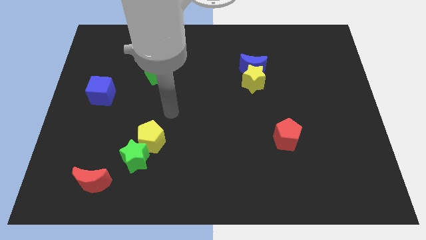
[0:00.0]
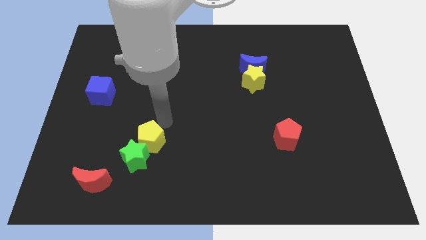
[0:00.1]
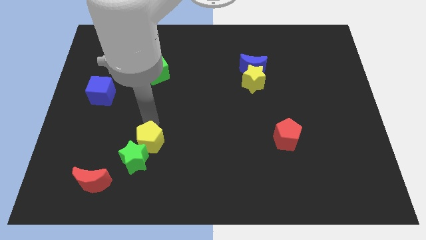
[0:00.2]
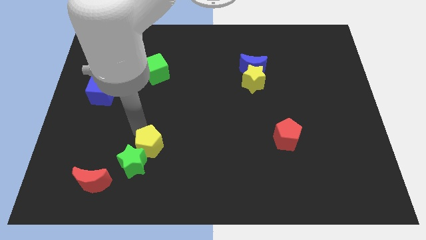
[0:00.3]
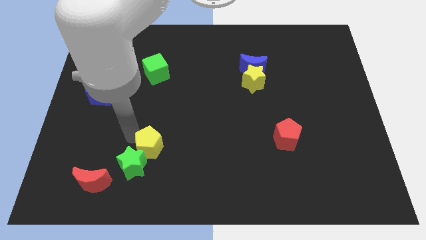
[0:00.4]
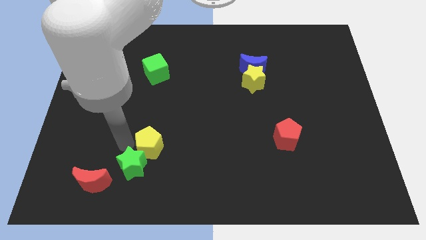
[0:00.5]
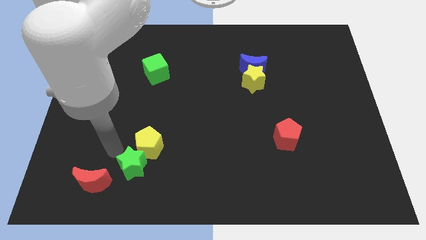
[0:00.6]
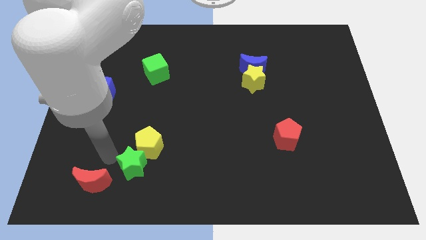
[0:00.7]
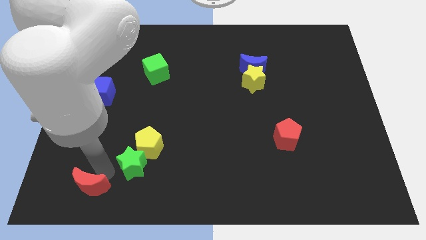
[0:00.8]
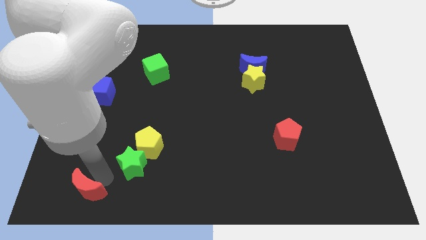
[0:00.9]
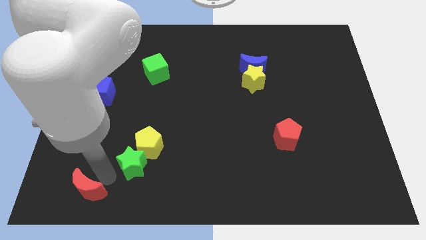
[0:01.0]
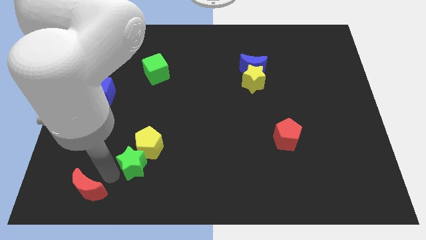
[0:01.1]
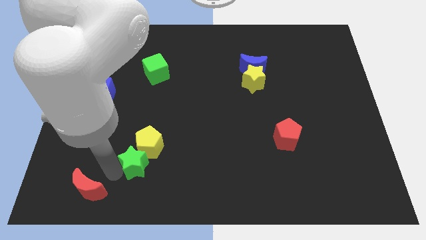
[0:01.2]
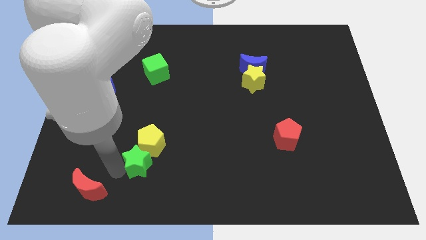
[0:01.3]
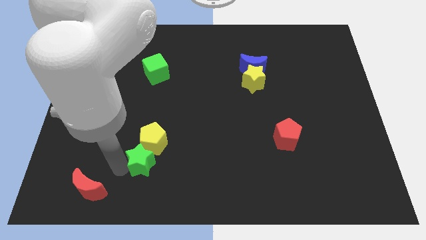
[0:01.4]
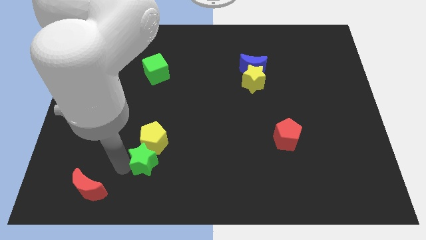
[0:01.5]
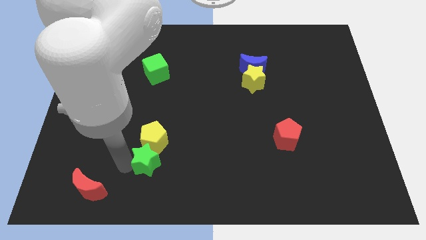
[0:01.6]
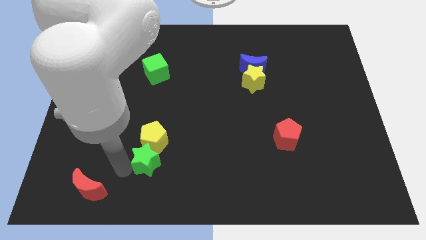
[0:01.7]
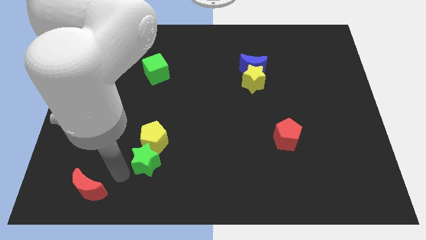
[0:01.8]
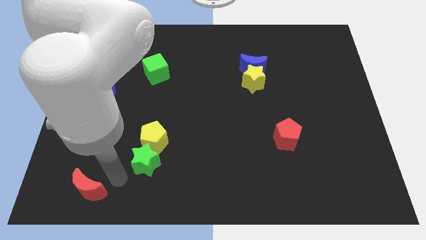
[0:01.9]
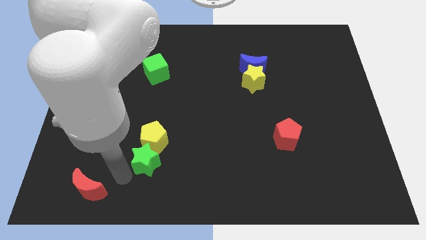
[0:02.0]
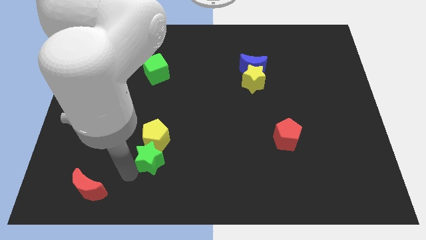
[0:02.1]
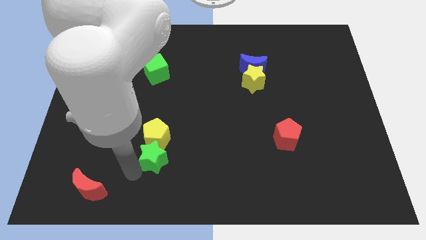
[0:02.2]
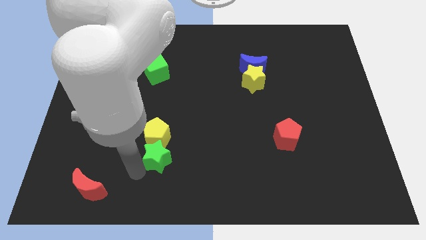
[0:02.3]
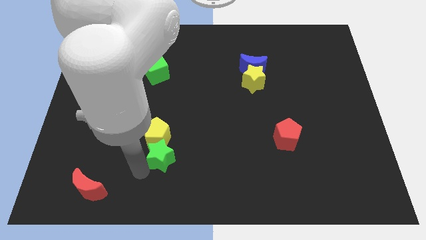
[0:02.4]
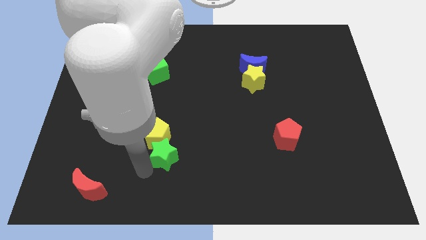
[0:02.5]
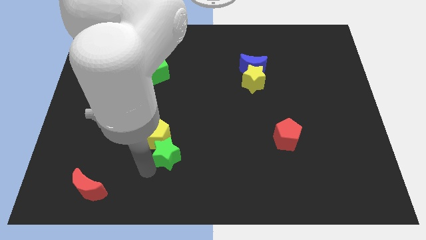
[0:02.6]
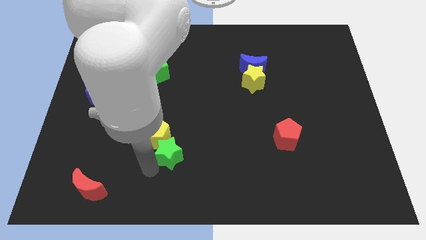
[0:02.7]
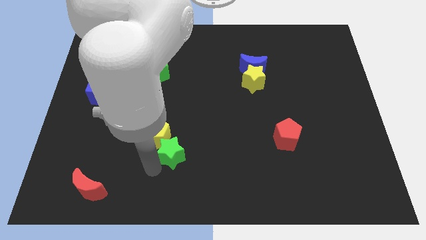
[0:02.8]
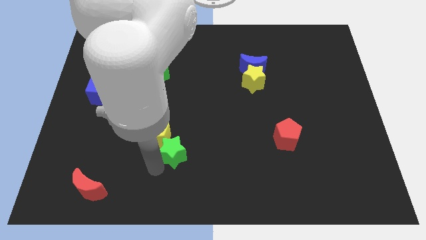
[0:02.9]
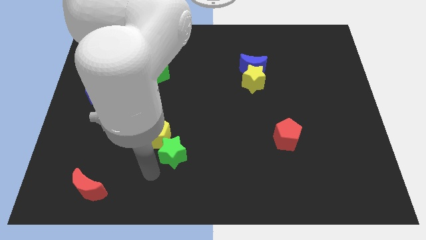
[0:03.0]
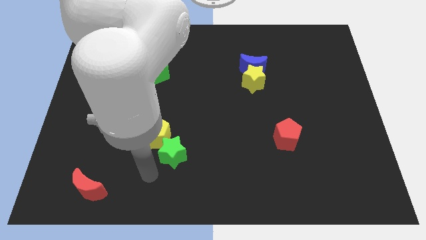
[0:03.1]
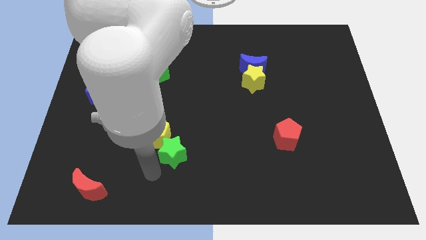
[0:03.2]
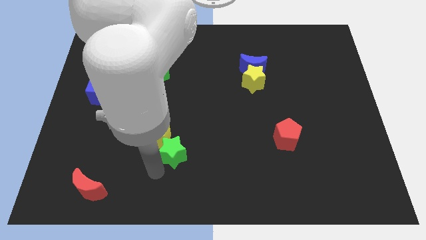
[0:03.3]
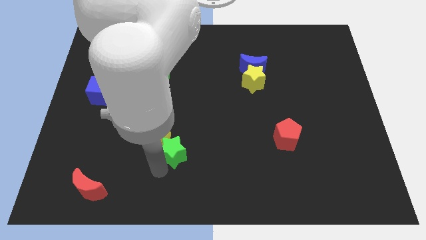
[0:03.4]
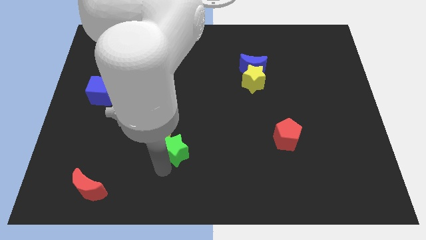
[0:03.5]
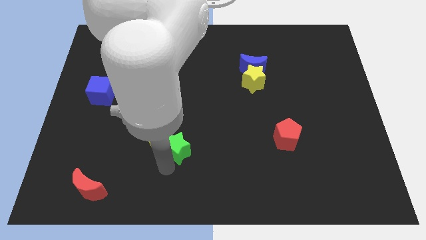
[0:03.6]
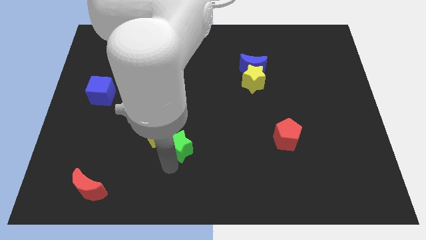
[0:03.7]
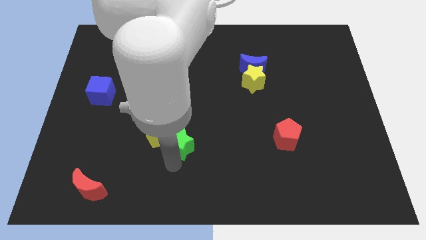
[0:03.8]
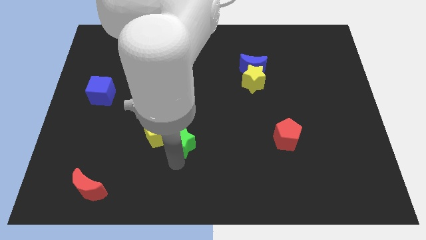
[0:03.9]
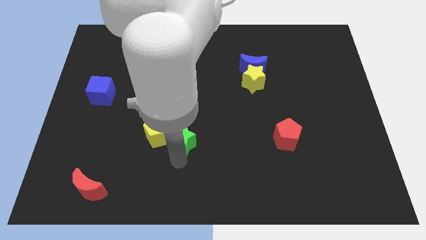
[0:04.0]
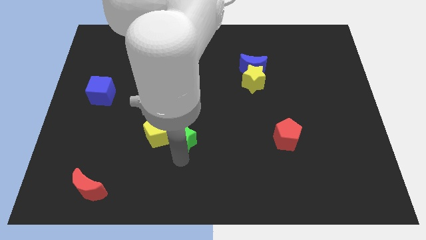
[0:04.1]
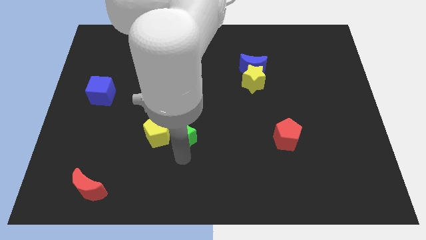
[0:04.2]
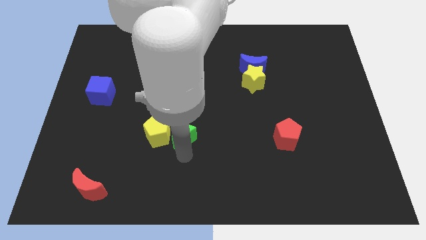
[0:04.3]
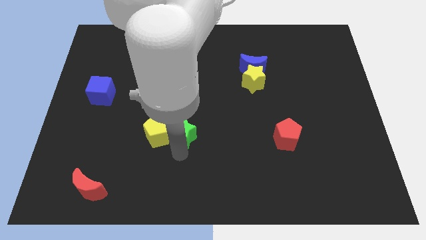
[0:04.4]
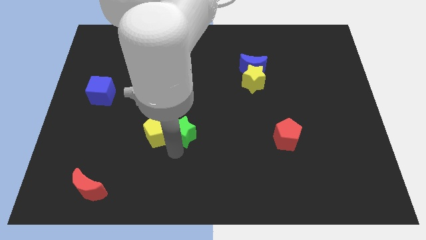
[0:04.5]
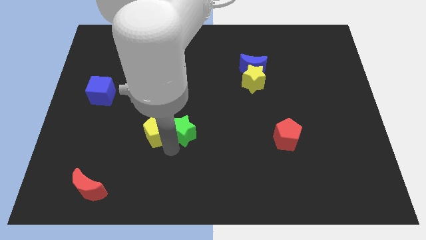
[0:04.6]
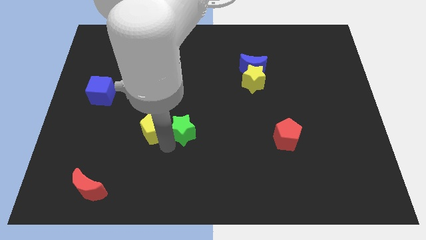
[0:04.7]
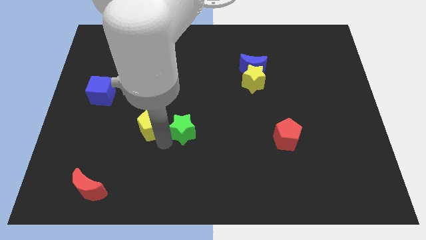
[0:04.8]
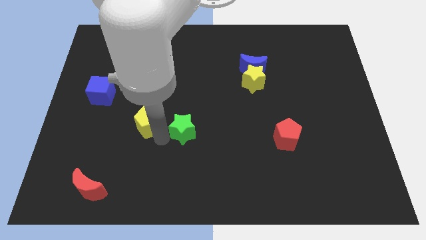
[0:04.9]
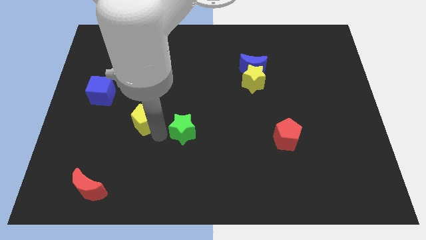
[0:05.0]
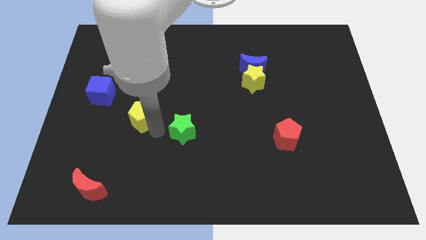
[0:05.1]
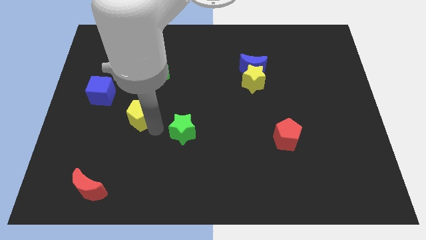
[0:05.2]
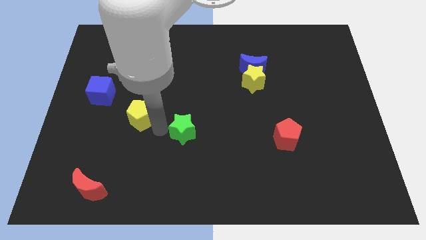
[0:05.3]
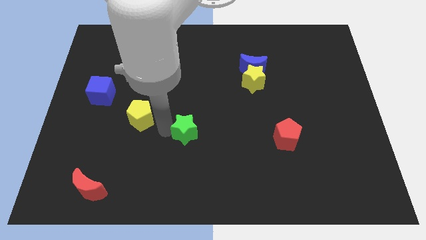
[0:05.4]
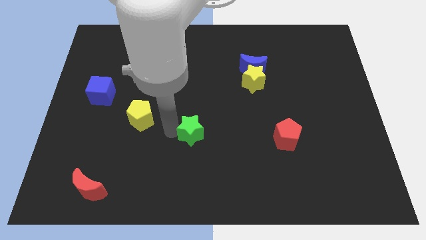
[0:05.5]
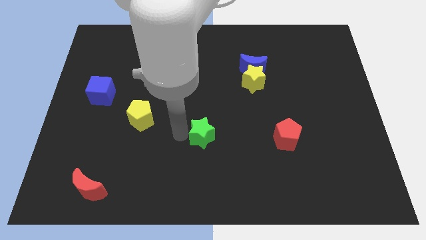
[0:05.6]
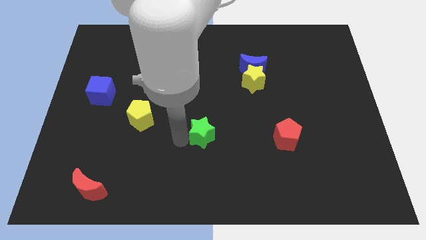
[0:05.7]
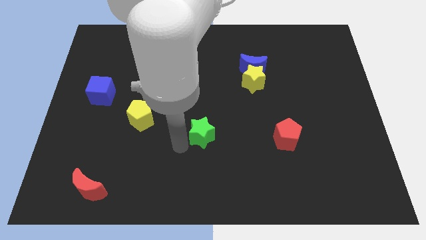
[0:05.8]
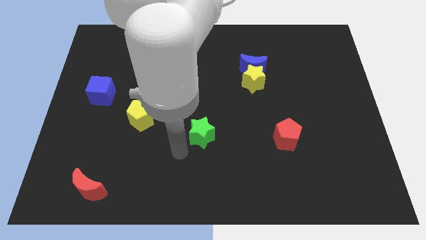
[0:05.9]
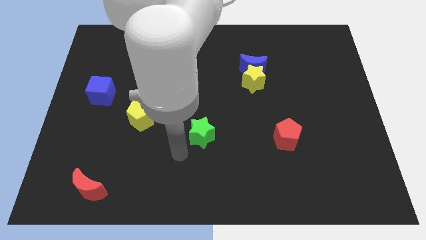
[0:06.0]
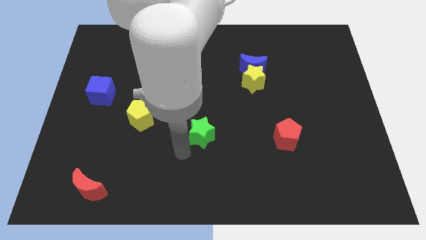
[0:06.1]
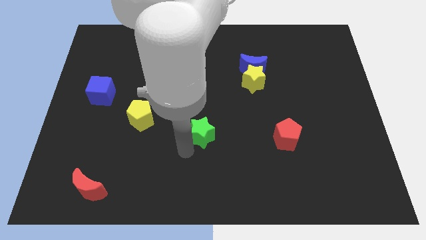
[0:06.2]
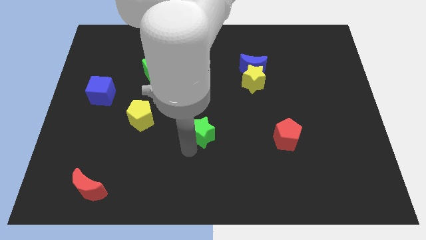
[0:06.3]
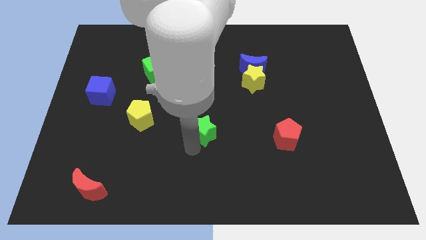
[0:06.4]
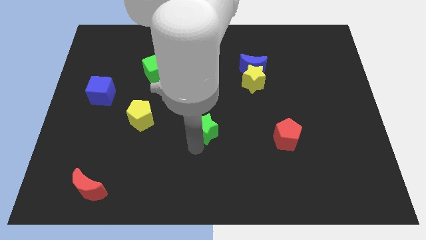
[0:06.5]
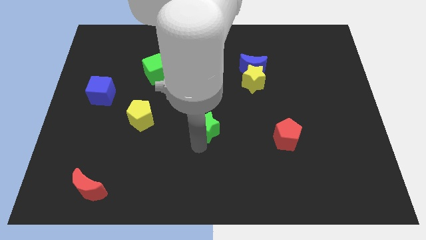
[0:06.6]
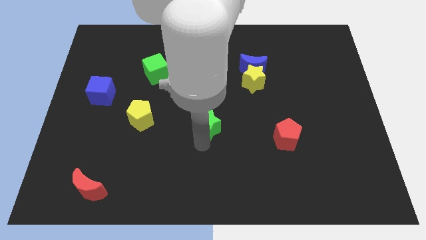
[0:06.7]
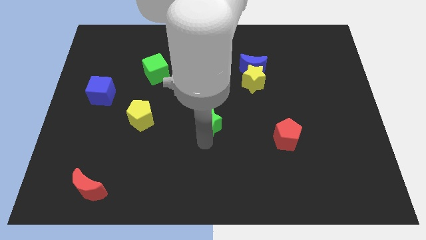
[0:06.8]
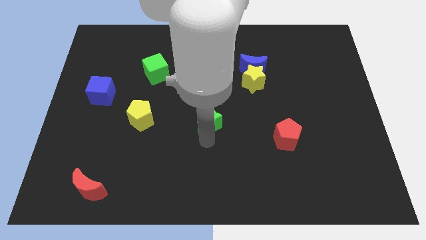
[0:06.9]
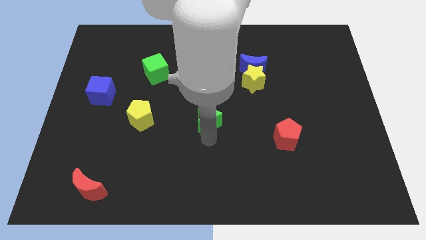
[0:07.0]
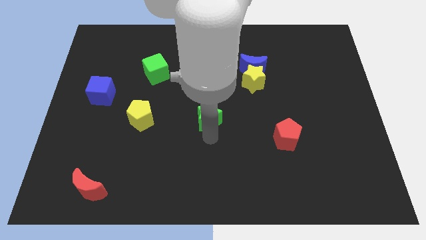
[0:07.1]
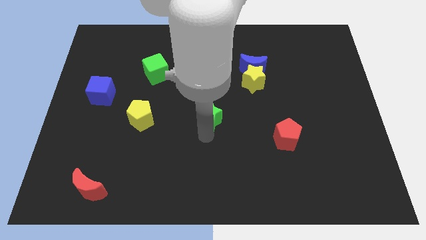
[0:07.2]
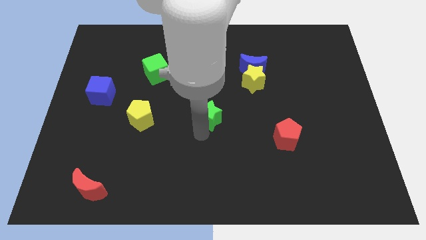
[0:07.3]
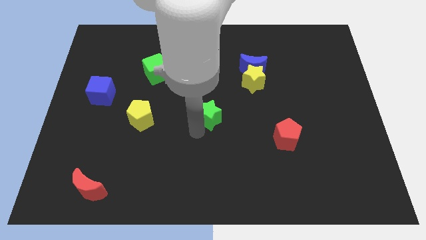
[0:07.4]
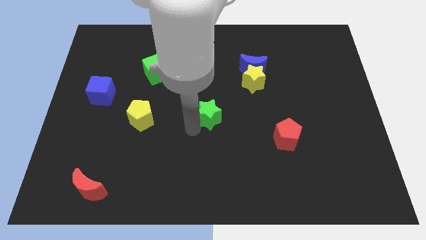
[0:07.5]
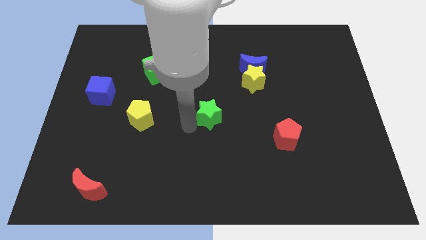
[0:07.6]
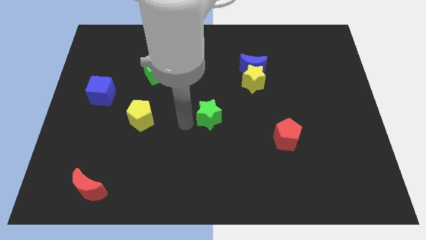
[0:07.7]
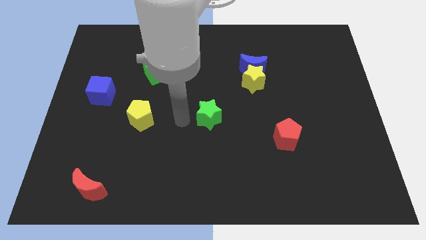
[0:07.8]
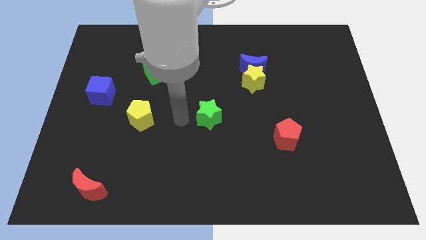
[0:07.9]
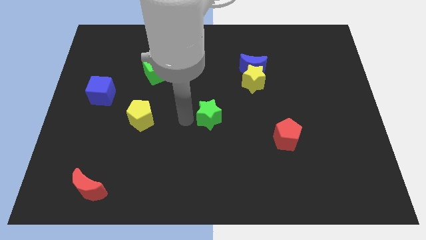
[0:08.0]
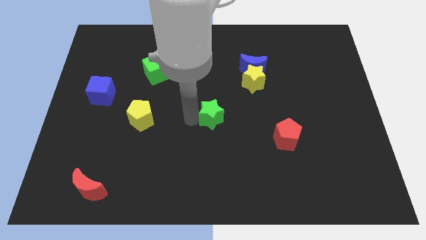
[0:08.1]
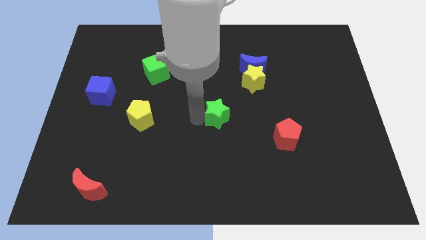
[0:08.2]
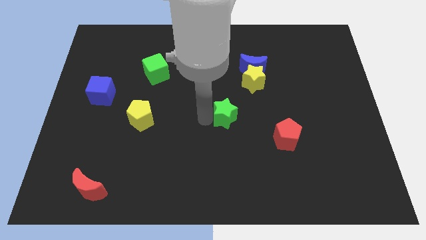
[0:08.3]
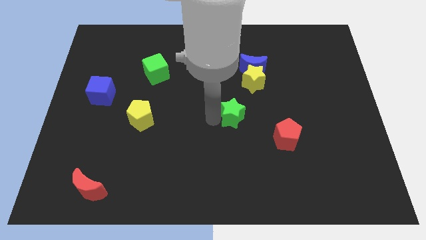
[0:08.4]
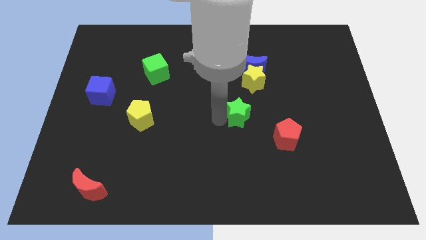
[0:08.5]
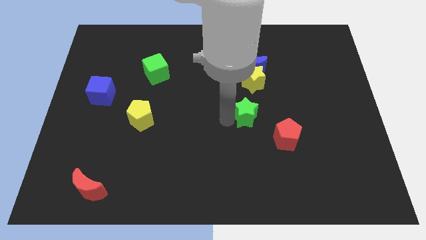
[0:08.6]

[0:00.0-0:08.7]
put the green star to the bottom side of the blue moon
